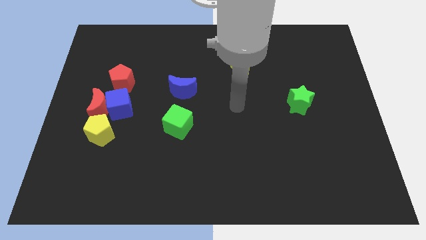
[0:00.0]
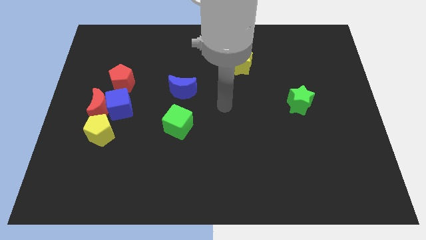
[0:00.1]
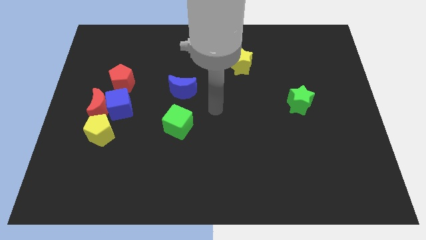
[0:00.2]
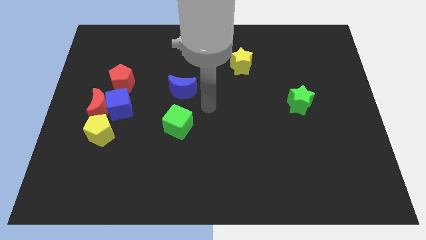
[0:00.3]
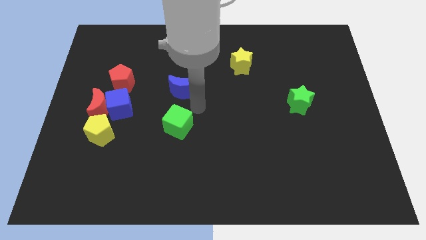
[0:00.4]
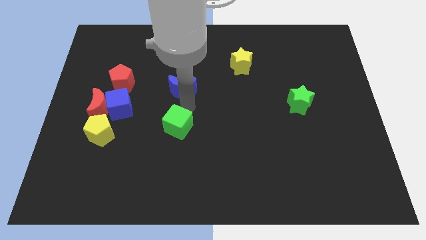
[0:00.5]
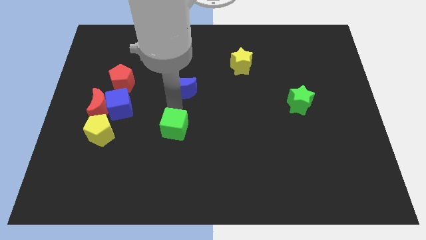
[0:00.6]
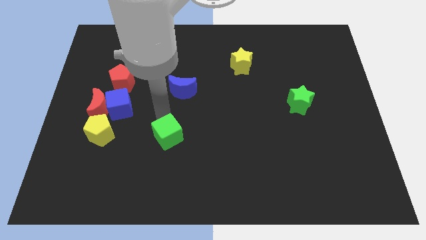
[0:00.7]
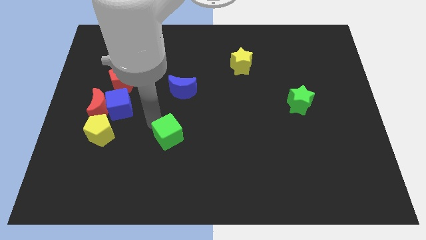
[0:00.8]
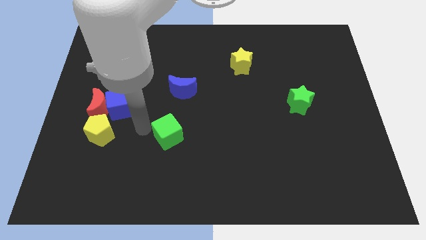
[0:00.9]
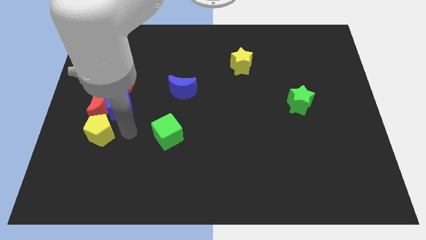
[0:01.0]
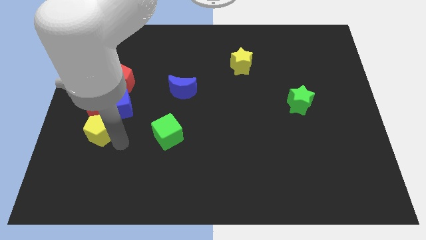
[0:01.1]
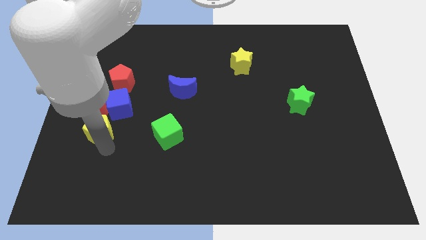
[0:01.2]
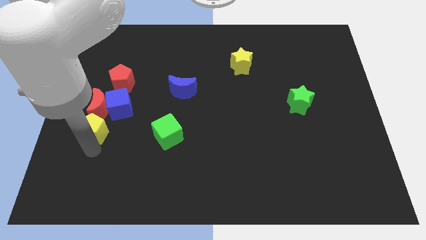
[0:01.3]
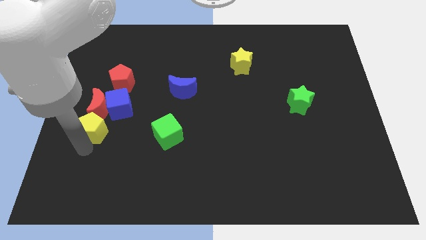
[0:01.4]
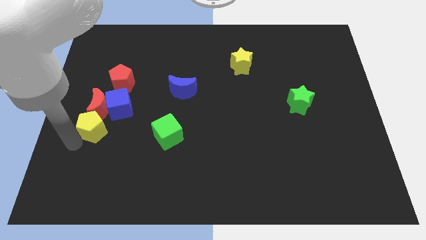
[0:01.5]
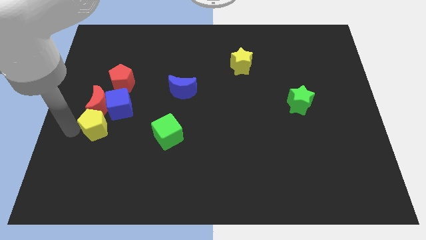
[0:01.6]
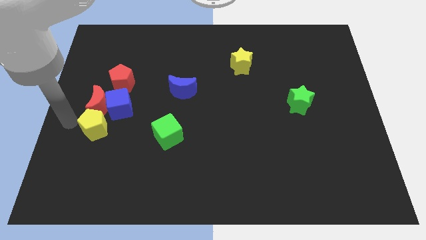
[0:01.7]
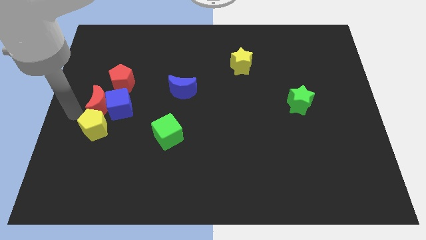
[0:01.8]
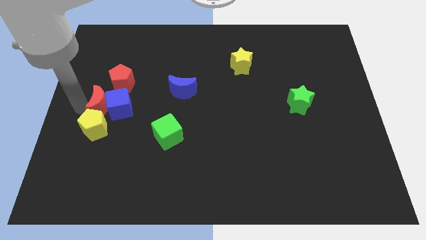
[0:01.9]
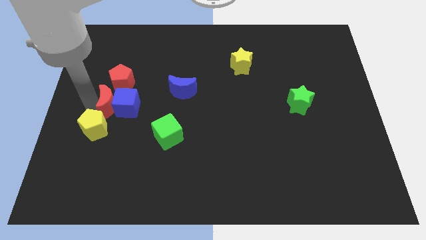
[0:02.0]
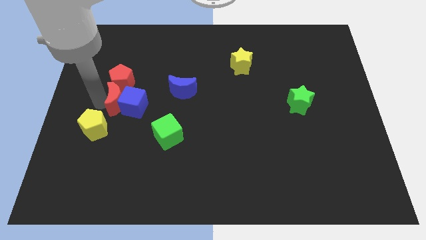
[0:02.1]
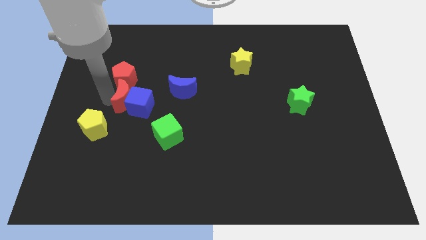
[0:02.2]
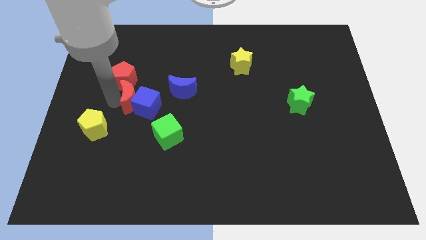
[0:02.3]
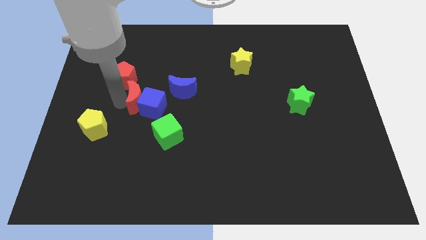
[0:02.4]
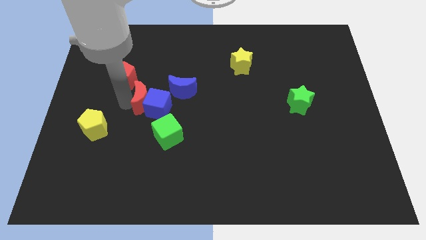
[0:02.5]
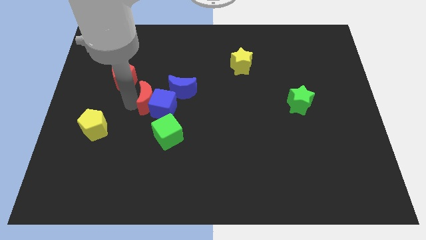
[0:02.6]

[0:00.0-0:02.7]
separate the blue cube from the red moon, red pentagon, and yellow pentagon

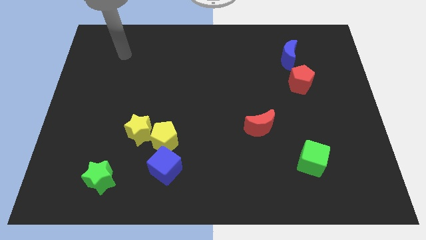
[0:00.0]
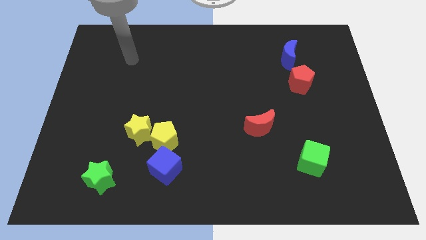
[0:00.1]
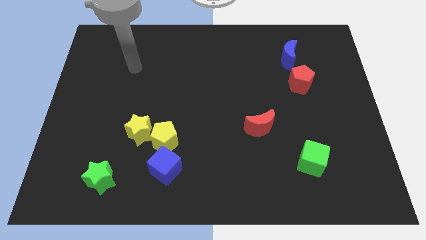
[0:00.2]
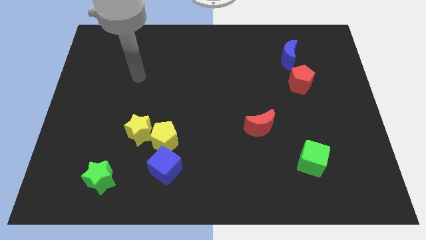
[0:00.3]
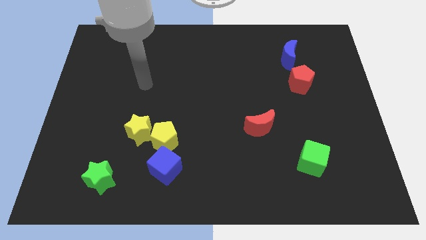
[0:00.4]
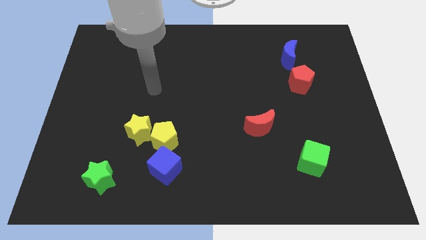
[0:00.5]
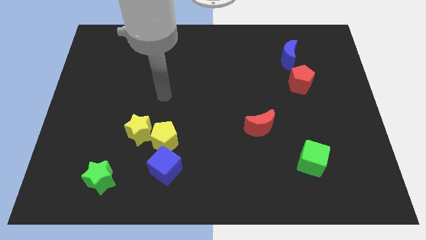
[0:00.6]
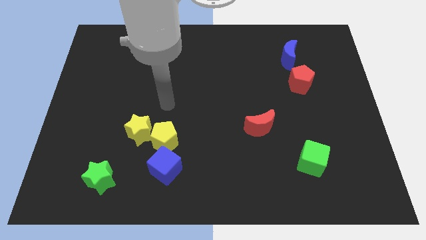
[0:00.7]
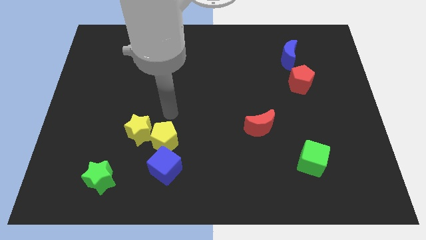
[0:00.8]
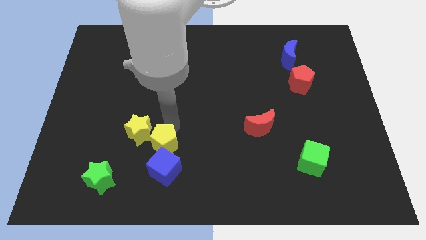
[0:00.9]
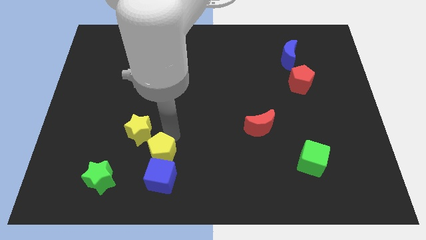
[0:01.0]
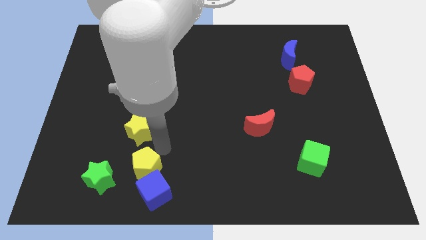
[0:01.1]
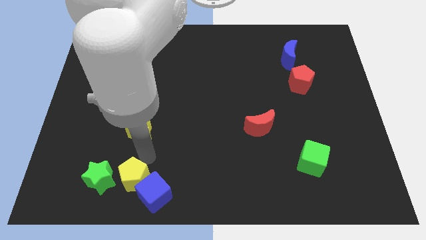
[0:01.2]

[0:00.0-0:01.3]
move the yellow star away from the yellow pentagon

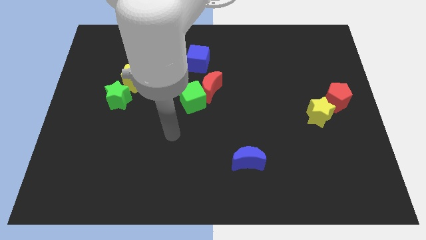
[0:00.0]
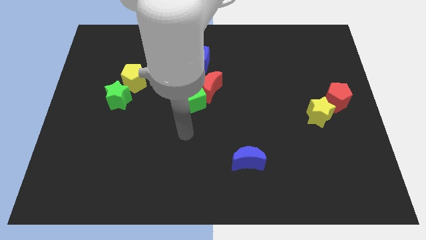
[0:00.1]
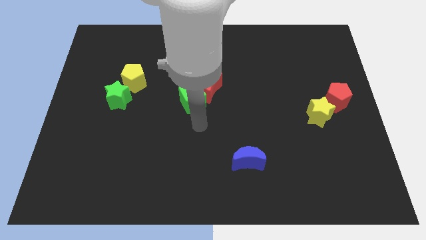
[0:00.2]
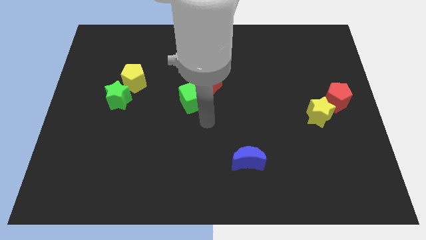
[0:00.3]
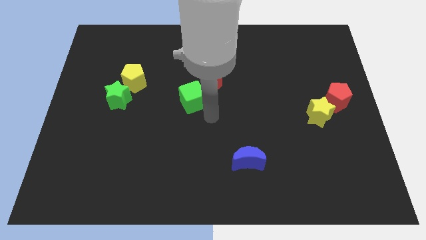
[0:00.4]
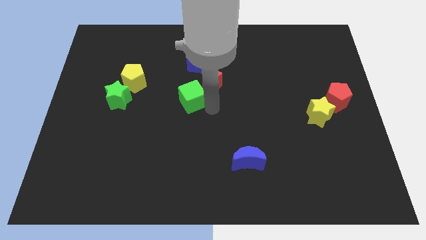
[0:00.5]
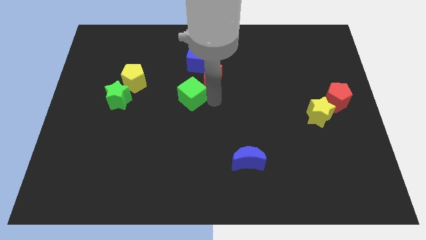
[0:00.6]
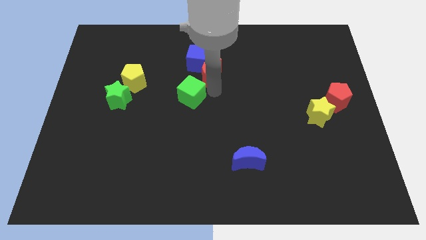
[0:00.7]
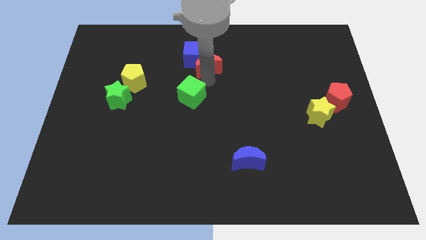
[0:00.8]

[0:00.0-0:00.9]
separate the green cube from the red moon

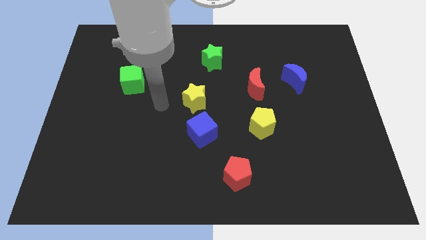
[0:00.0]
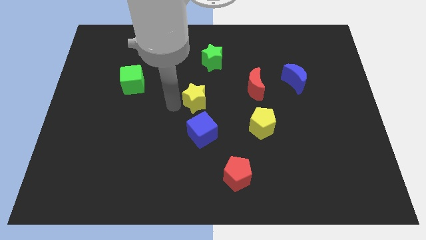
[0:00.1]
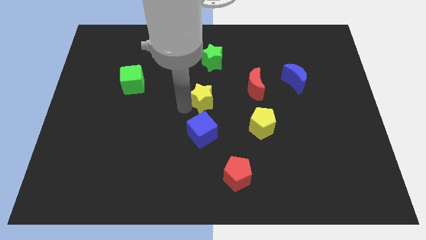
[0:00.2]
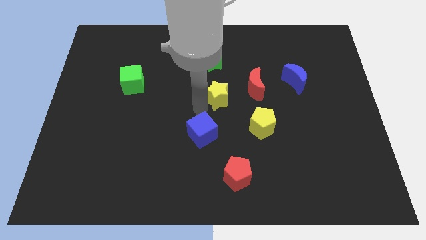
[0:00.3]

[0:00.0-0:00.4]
separate the blue cube from the yellow star

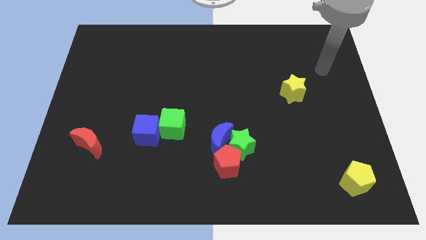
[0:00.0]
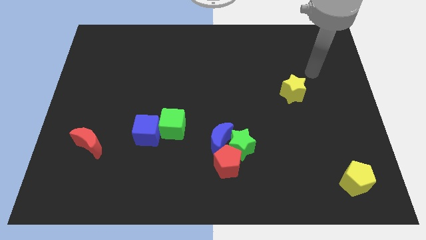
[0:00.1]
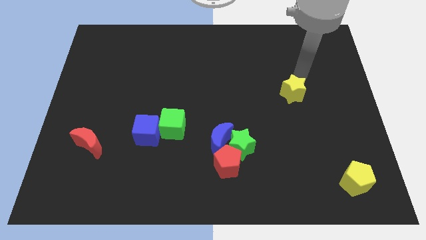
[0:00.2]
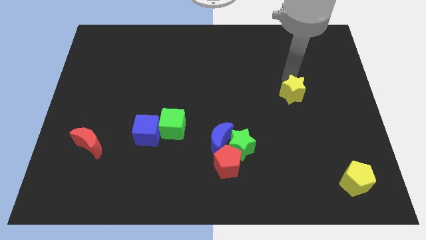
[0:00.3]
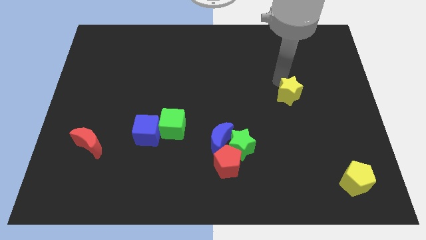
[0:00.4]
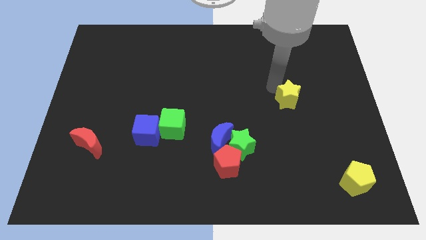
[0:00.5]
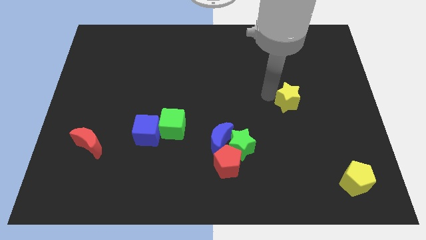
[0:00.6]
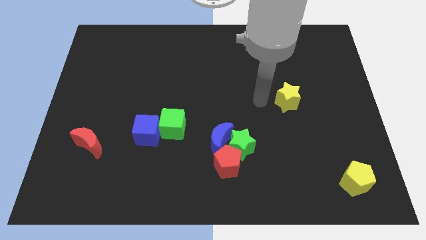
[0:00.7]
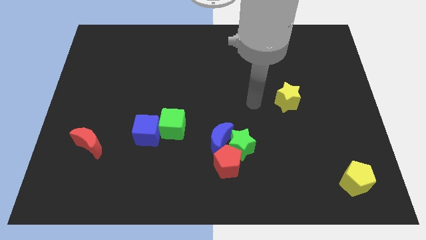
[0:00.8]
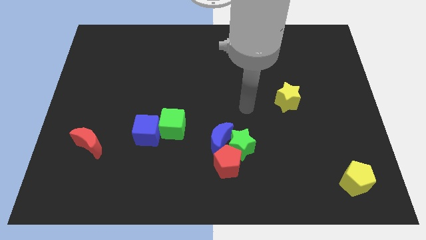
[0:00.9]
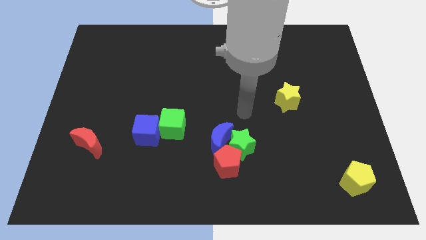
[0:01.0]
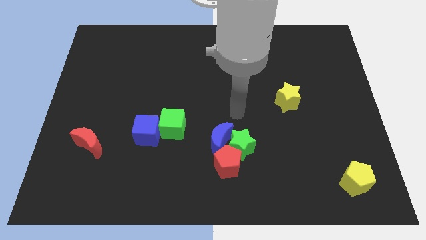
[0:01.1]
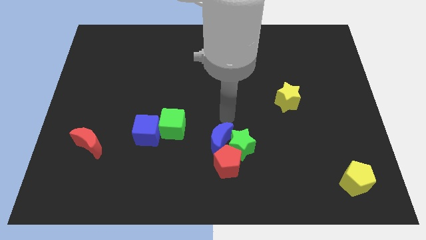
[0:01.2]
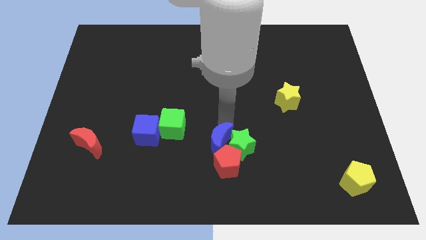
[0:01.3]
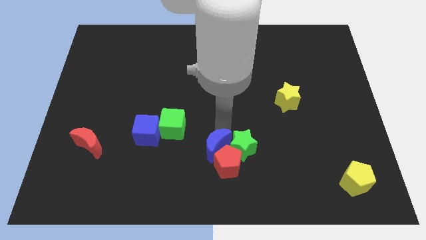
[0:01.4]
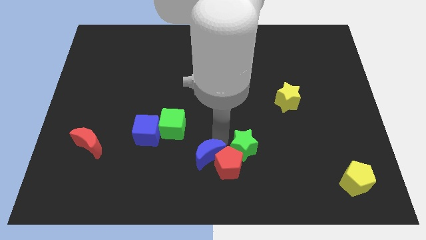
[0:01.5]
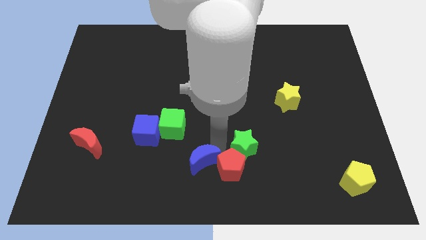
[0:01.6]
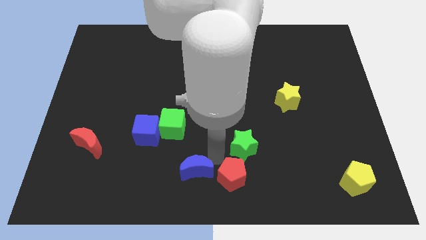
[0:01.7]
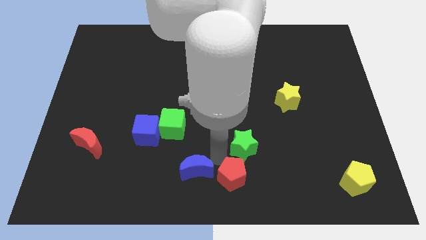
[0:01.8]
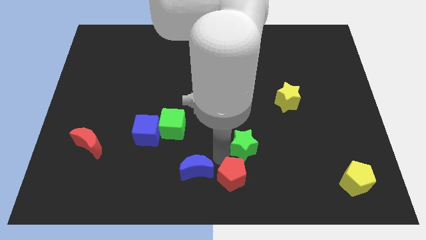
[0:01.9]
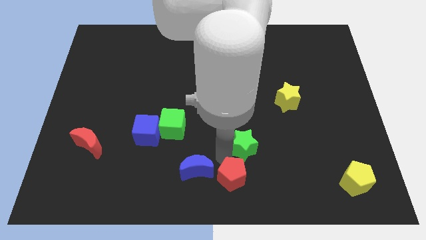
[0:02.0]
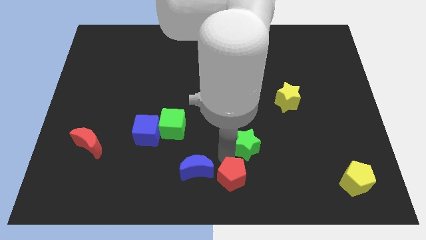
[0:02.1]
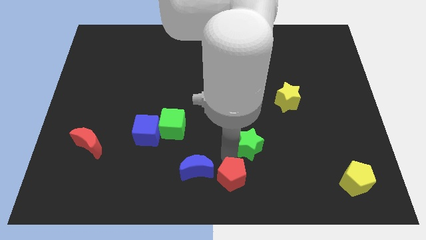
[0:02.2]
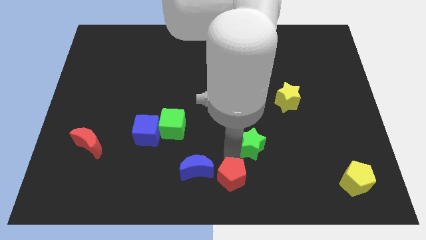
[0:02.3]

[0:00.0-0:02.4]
separate the green star from the blue moon and red pentagon

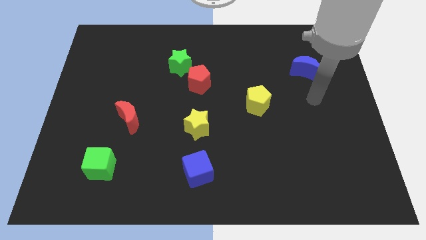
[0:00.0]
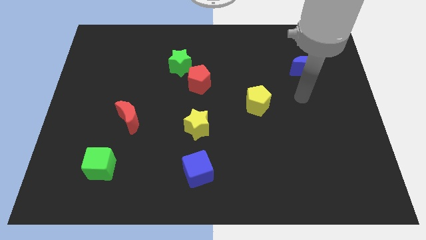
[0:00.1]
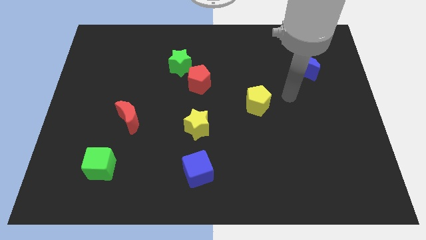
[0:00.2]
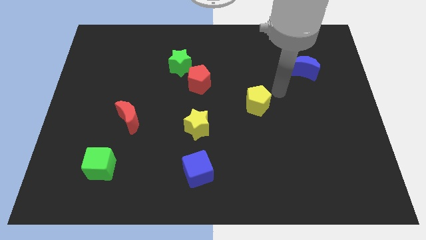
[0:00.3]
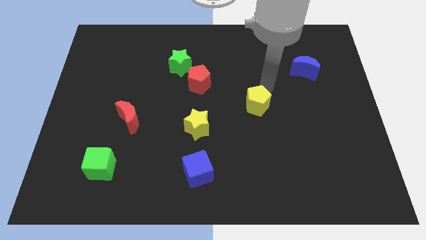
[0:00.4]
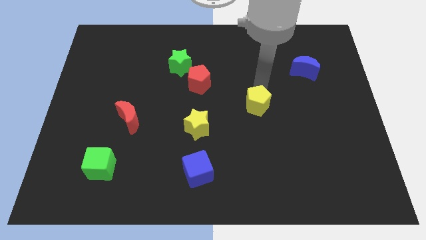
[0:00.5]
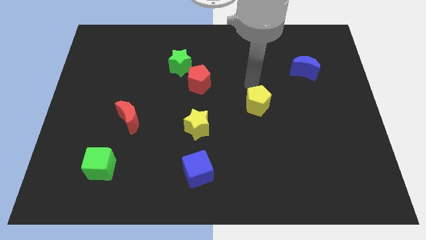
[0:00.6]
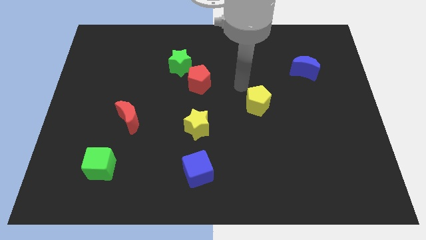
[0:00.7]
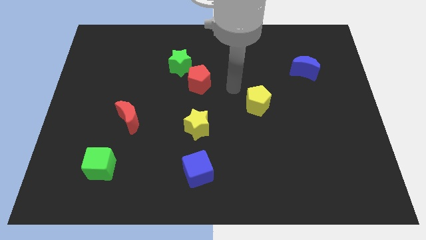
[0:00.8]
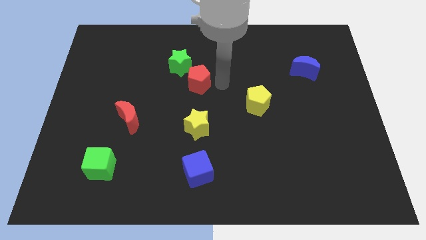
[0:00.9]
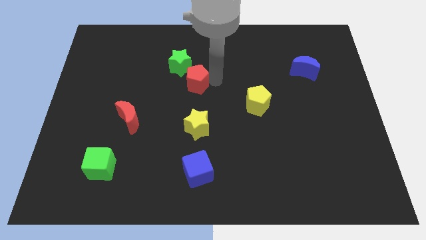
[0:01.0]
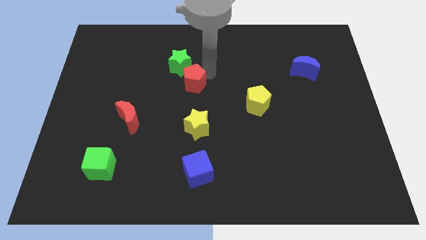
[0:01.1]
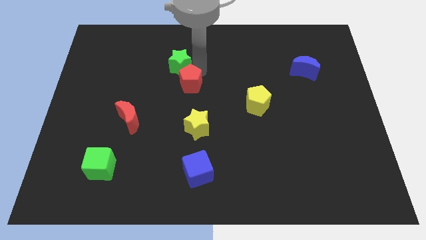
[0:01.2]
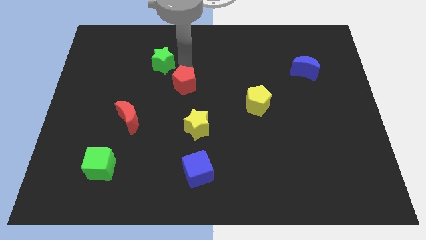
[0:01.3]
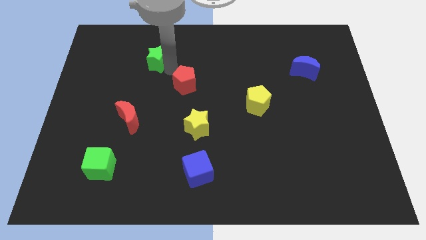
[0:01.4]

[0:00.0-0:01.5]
pull the red pentagon apart from the green star
